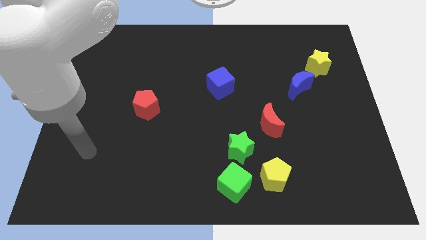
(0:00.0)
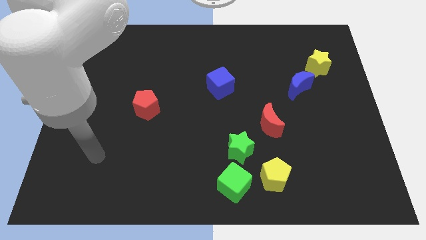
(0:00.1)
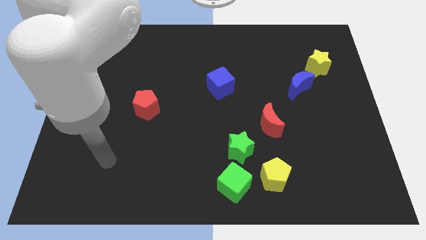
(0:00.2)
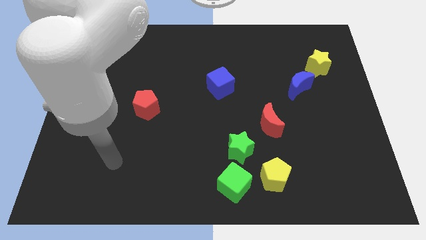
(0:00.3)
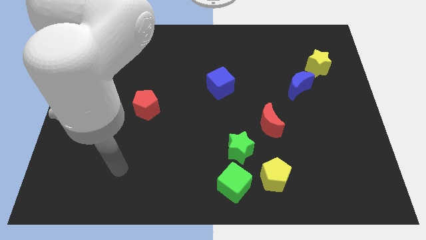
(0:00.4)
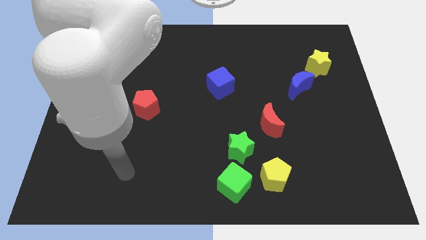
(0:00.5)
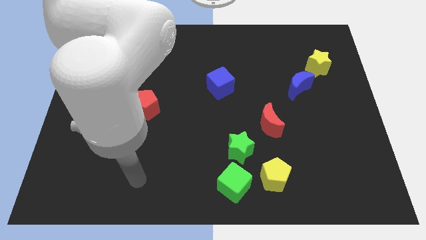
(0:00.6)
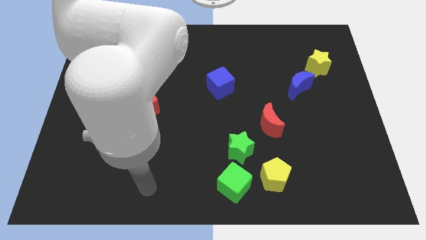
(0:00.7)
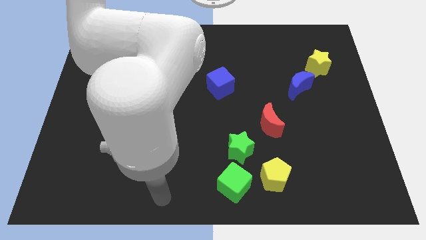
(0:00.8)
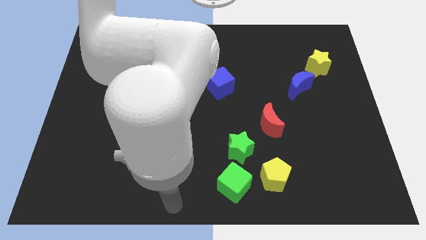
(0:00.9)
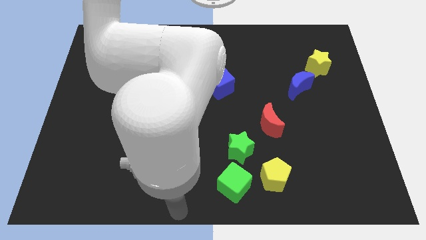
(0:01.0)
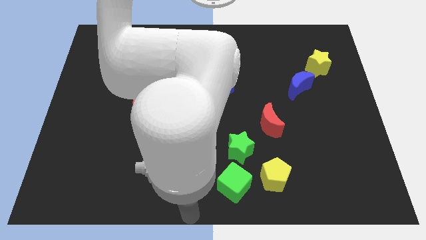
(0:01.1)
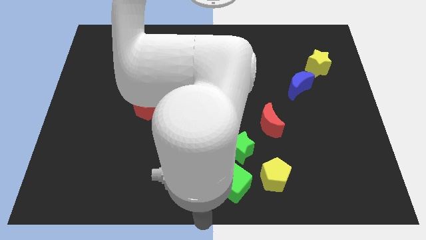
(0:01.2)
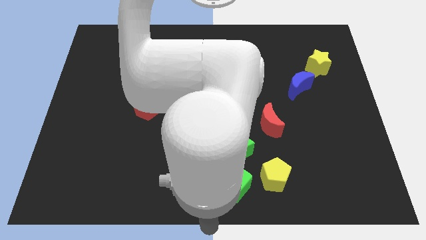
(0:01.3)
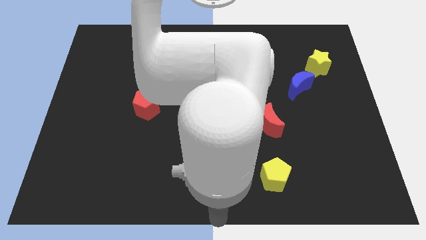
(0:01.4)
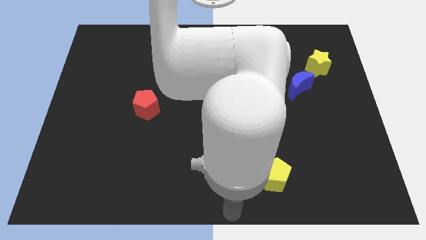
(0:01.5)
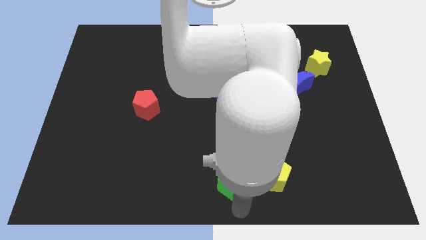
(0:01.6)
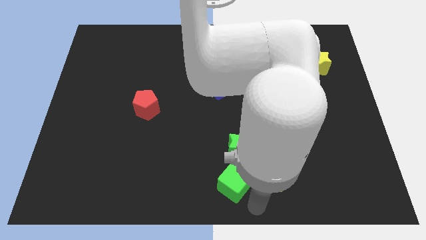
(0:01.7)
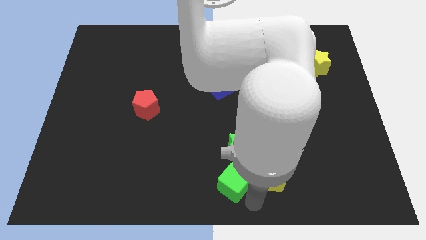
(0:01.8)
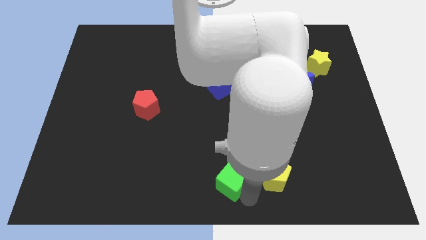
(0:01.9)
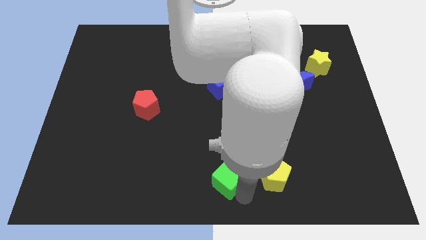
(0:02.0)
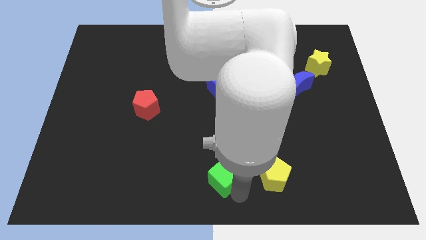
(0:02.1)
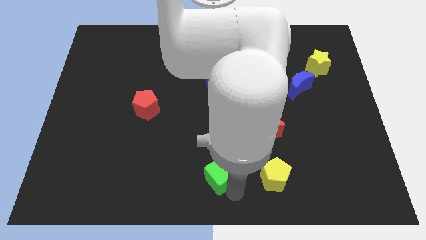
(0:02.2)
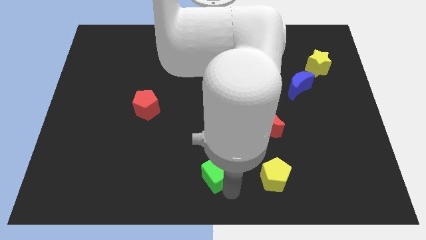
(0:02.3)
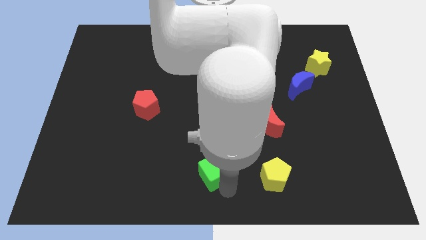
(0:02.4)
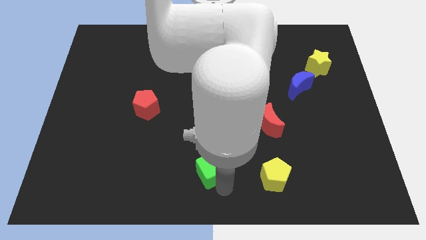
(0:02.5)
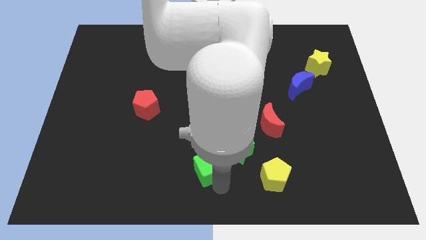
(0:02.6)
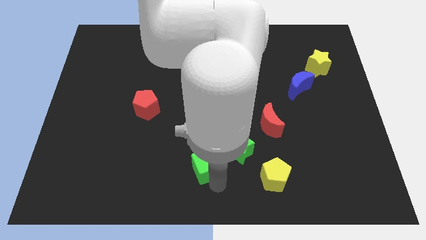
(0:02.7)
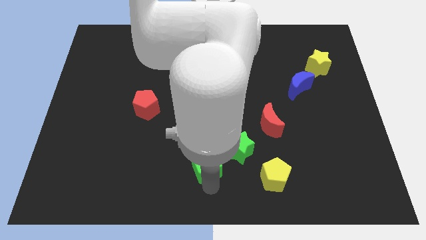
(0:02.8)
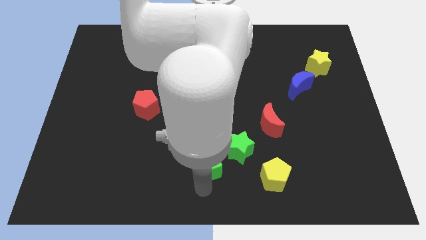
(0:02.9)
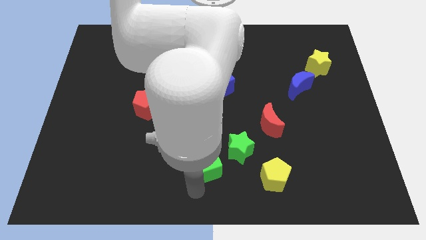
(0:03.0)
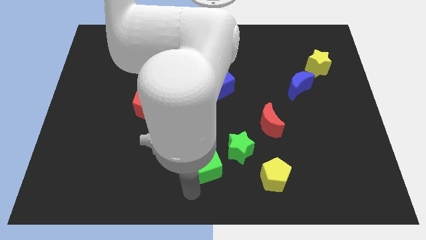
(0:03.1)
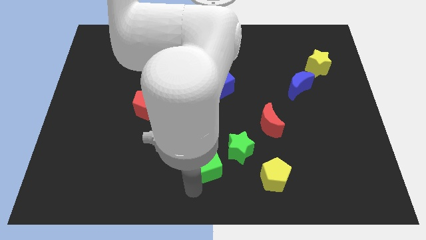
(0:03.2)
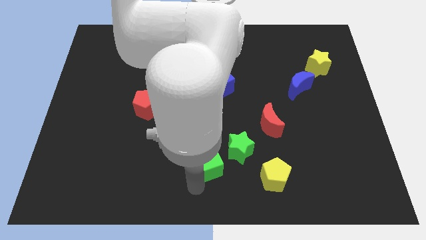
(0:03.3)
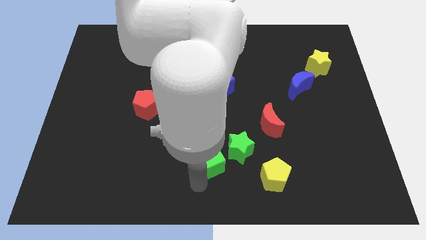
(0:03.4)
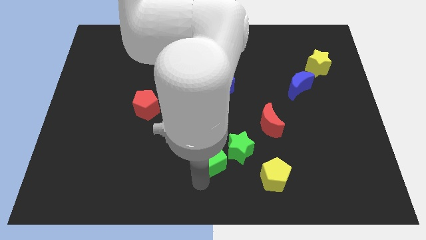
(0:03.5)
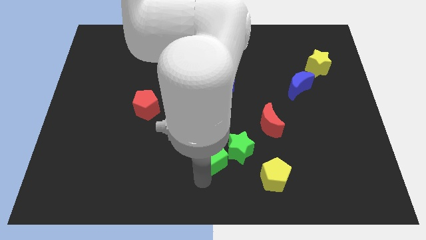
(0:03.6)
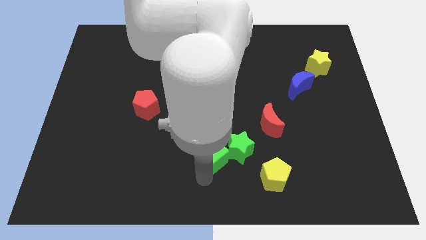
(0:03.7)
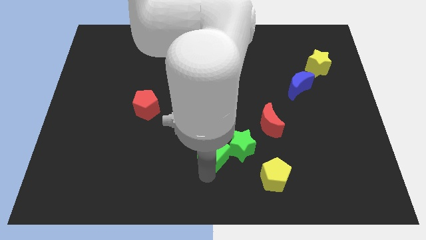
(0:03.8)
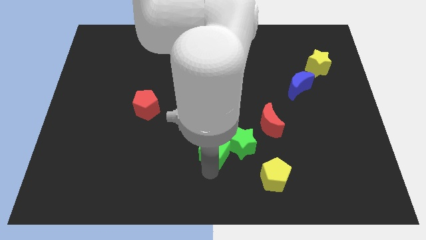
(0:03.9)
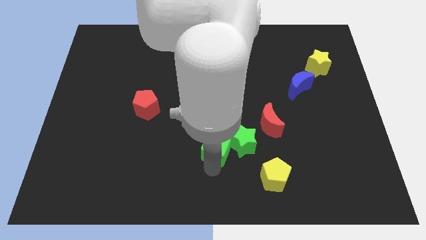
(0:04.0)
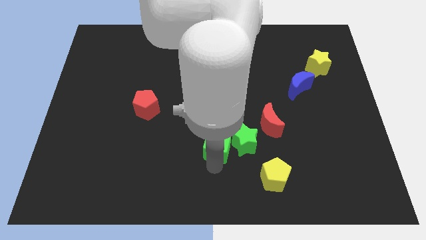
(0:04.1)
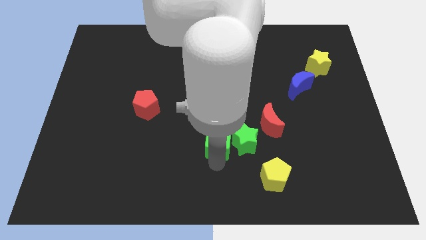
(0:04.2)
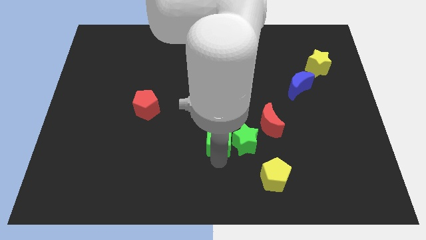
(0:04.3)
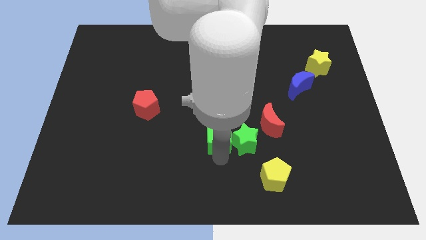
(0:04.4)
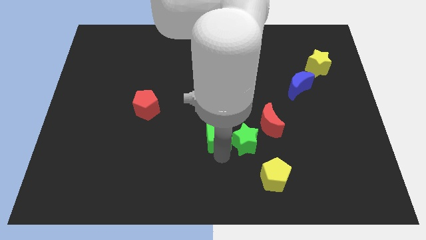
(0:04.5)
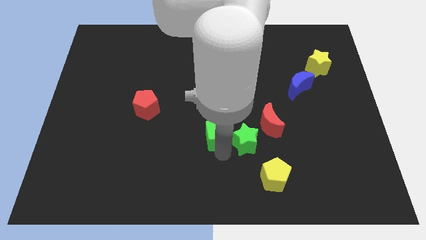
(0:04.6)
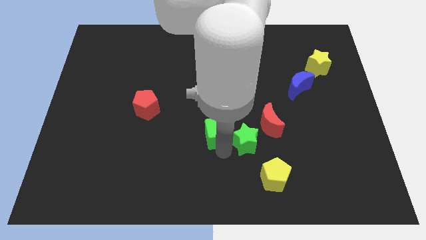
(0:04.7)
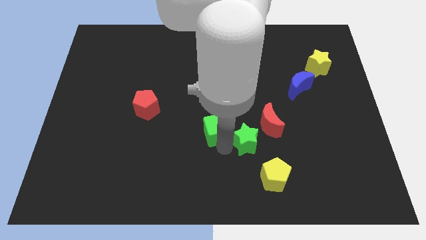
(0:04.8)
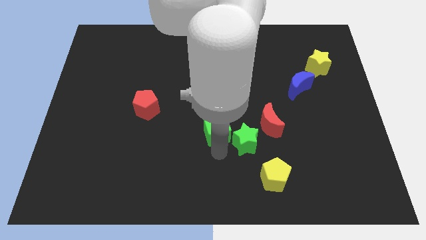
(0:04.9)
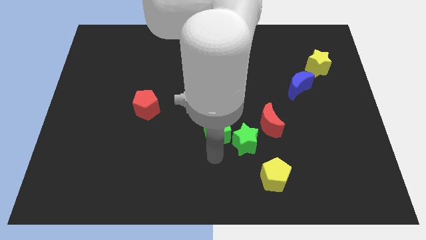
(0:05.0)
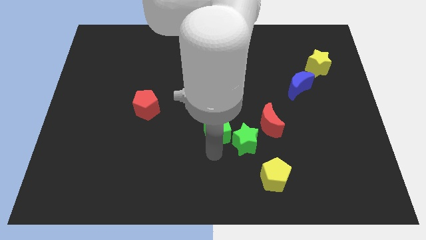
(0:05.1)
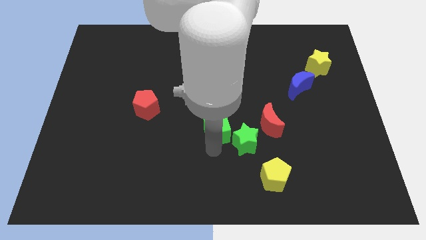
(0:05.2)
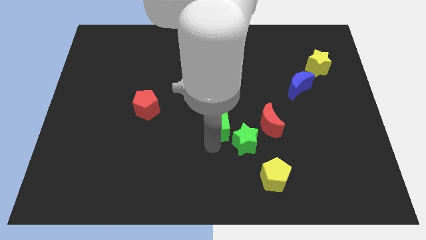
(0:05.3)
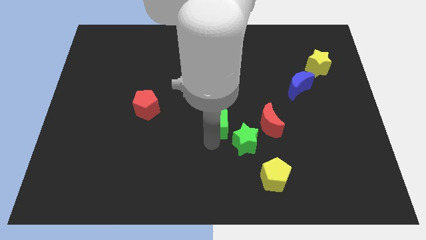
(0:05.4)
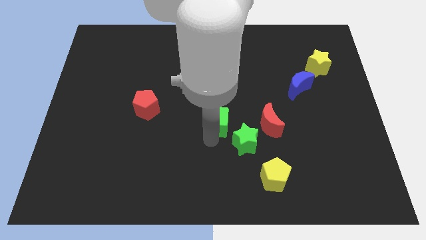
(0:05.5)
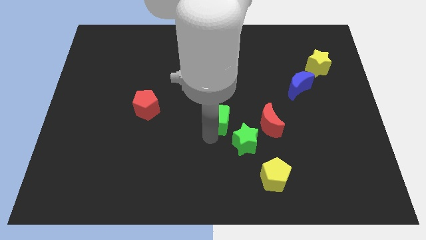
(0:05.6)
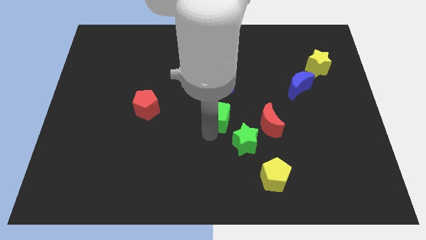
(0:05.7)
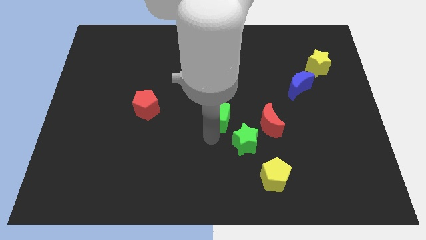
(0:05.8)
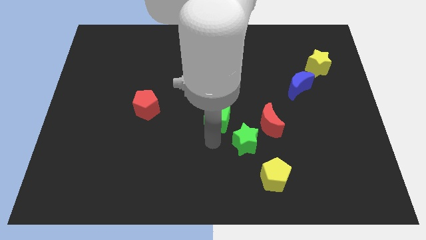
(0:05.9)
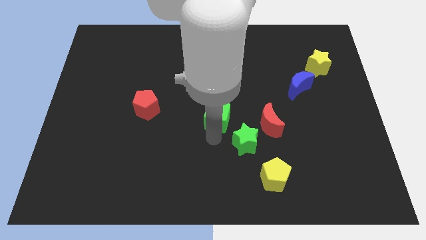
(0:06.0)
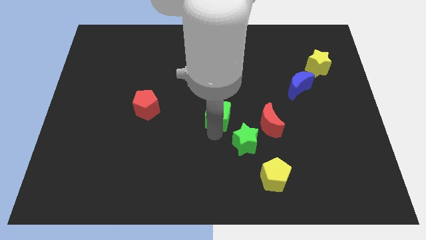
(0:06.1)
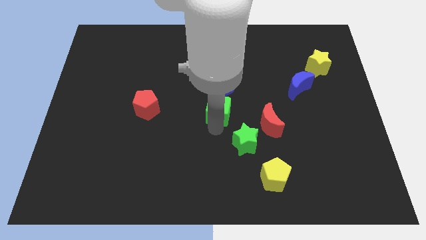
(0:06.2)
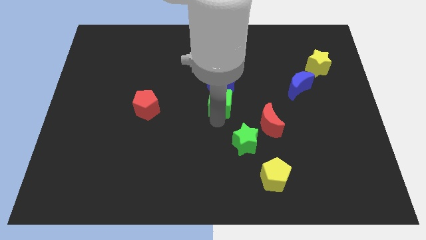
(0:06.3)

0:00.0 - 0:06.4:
slide the green cube towards the blue cube

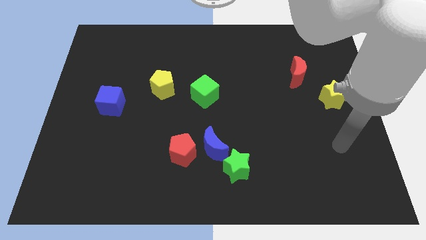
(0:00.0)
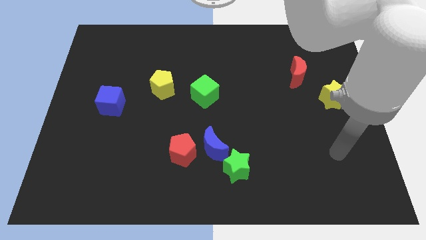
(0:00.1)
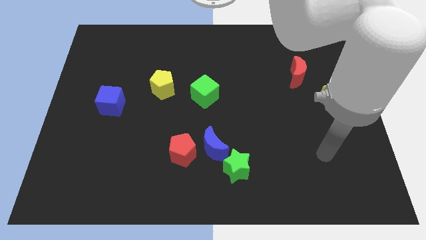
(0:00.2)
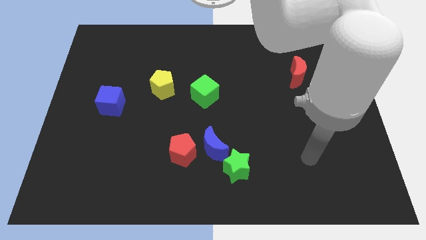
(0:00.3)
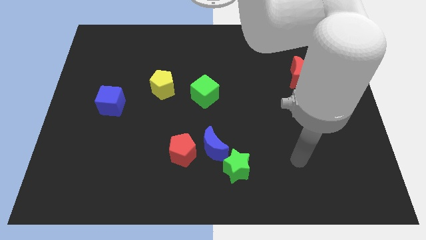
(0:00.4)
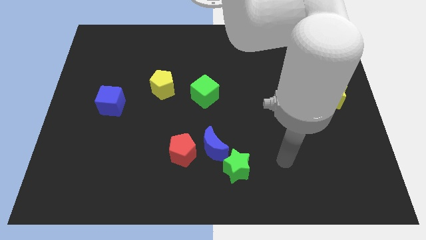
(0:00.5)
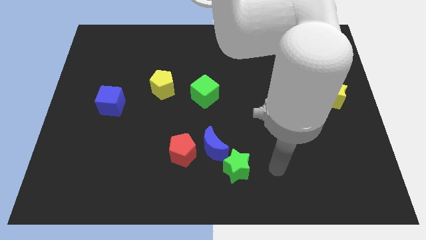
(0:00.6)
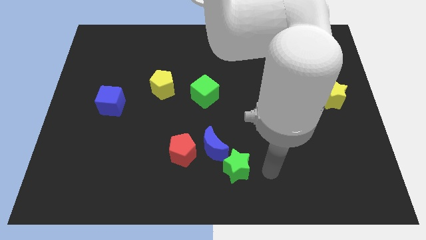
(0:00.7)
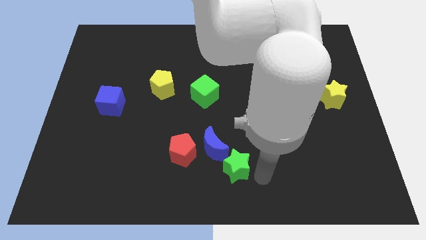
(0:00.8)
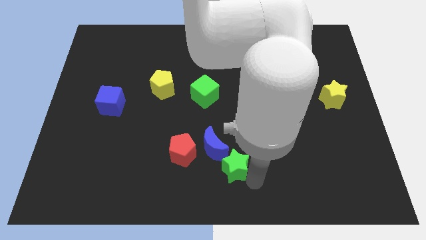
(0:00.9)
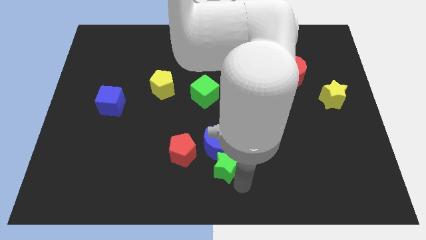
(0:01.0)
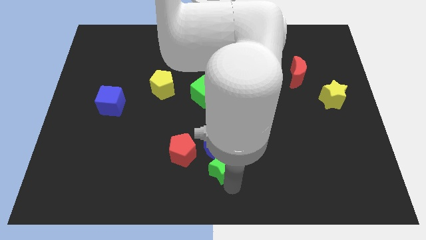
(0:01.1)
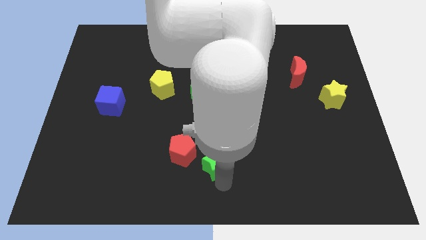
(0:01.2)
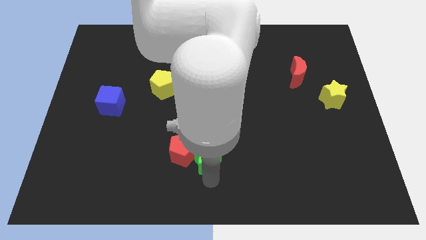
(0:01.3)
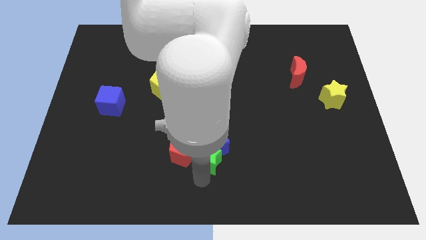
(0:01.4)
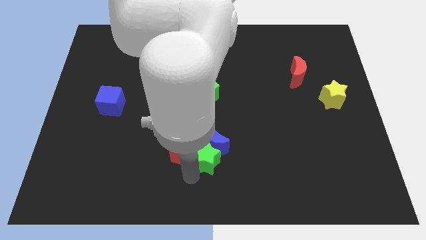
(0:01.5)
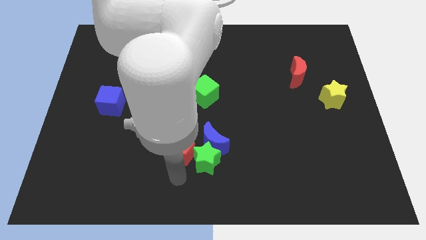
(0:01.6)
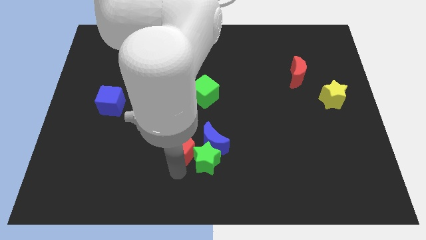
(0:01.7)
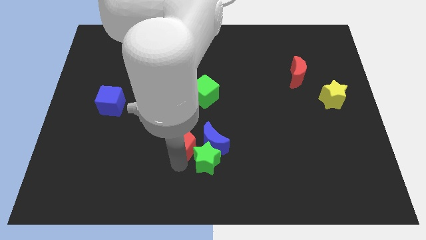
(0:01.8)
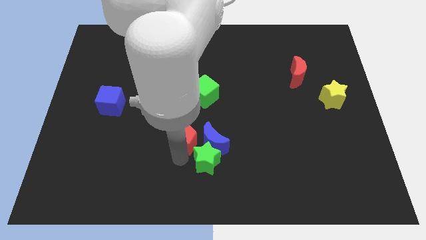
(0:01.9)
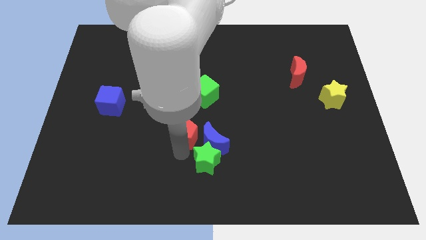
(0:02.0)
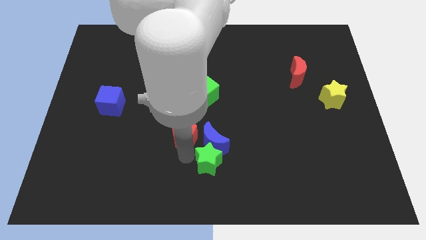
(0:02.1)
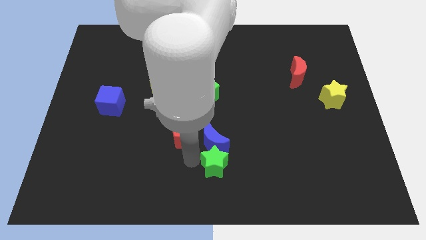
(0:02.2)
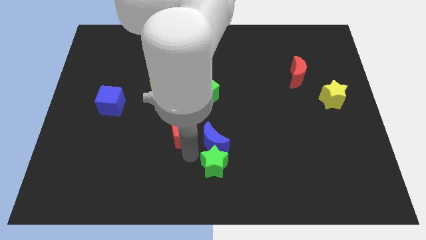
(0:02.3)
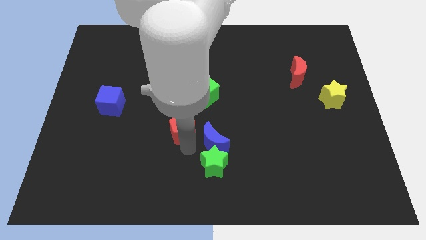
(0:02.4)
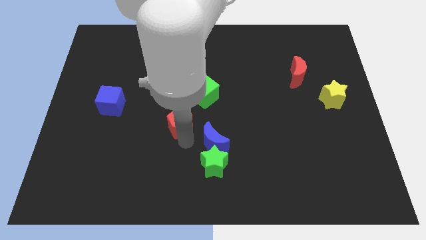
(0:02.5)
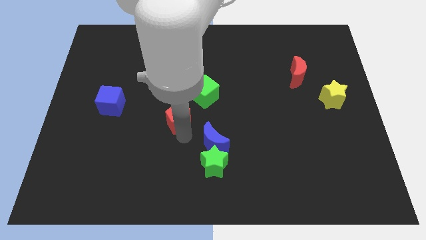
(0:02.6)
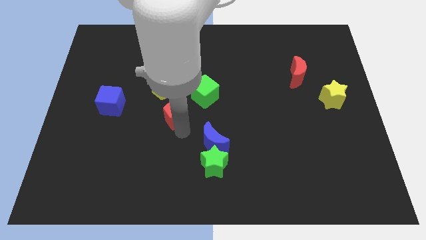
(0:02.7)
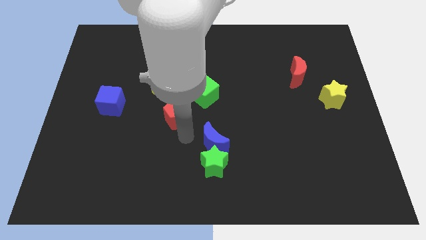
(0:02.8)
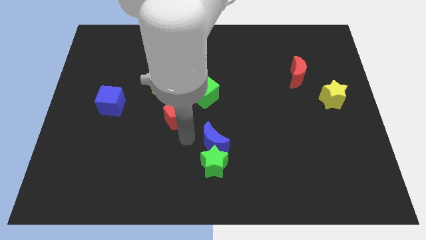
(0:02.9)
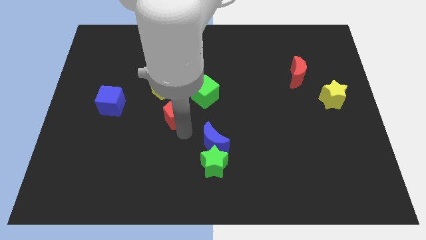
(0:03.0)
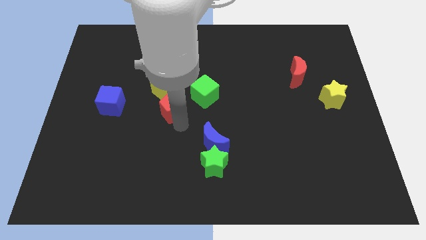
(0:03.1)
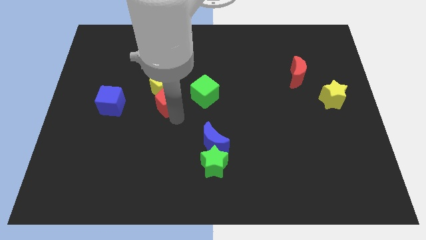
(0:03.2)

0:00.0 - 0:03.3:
move the red pentagon next to the yellow pentagon
